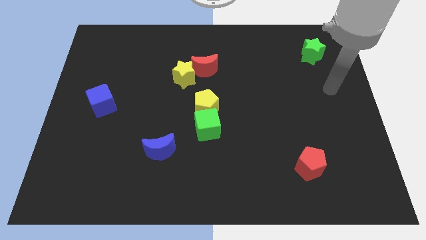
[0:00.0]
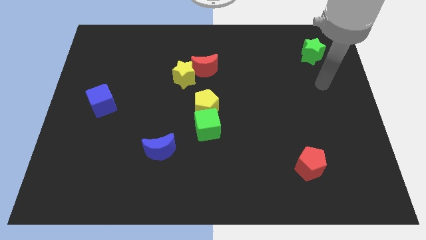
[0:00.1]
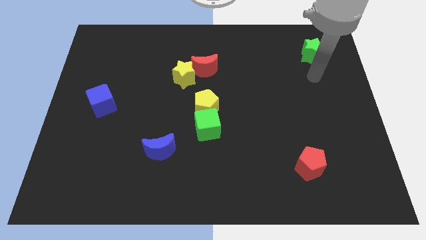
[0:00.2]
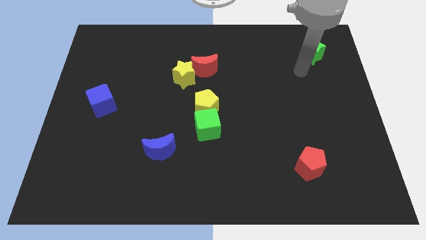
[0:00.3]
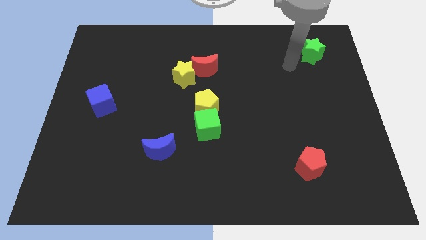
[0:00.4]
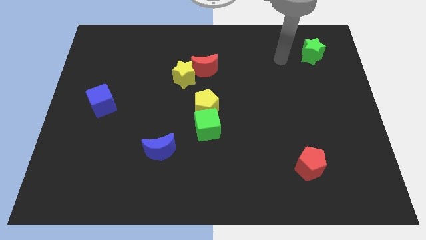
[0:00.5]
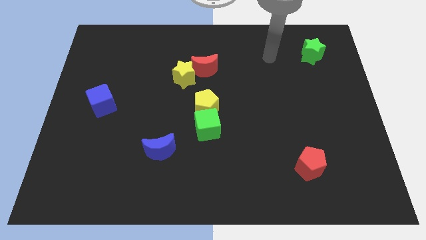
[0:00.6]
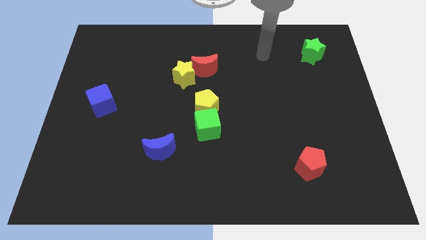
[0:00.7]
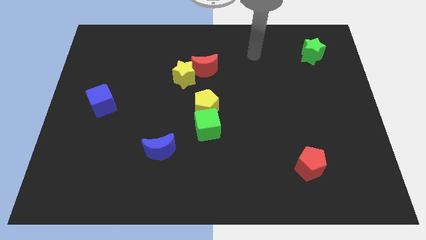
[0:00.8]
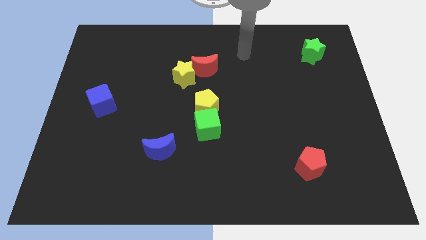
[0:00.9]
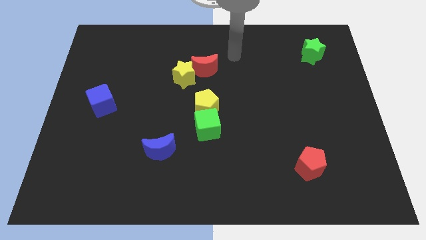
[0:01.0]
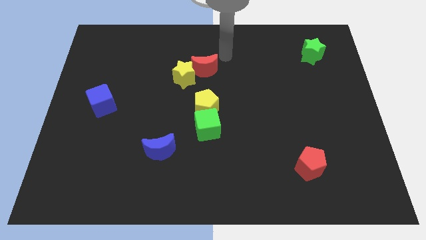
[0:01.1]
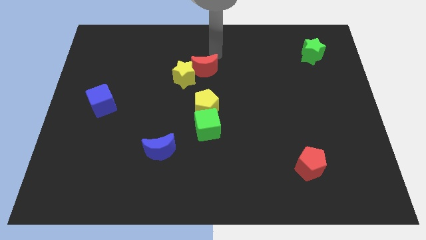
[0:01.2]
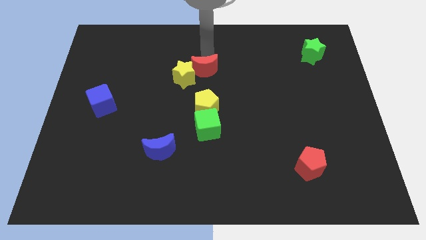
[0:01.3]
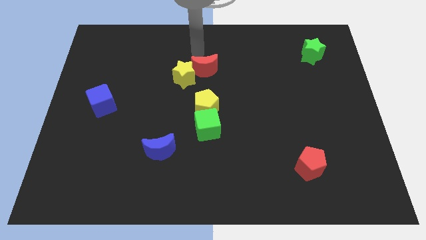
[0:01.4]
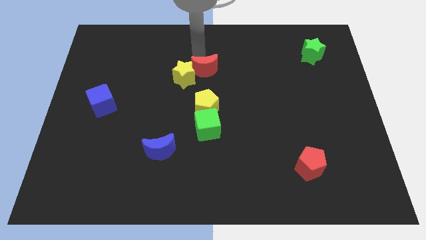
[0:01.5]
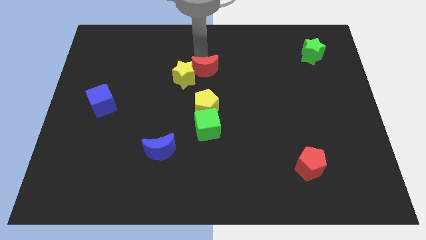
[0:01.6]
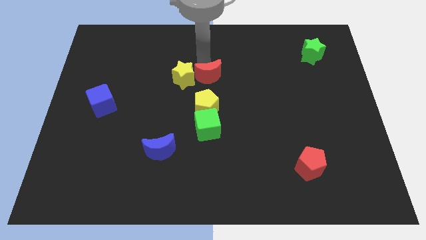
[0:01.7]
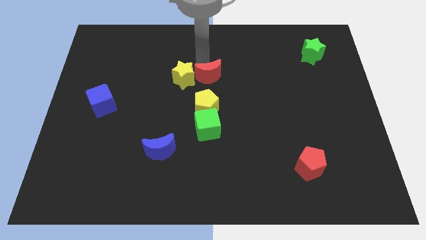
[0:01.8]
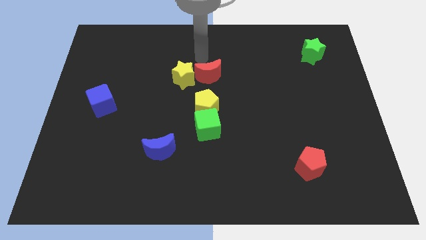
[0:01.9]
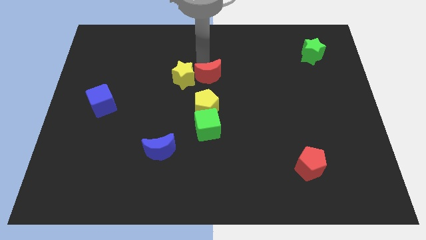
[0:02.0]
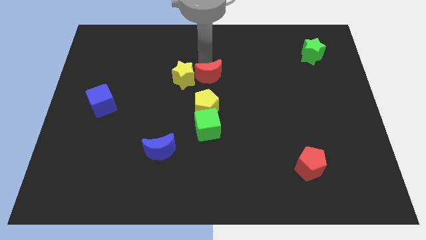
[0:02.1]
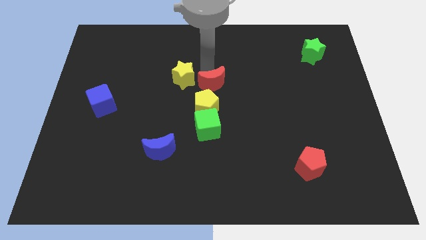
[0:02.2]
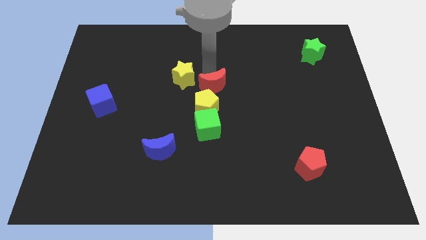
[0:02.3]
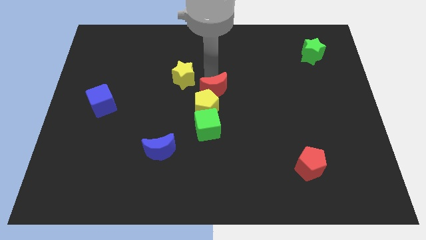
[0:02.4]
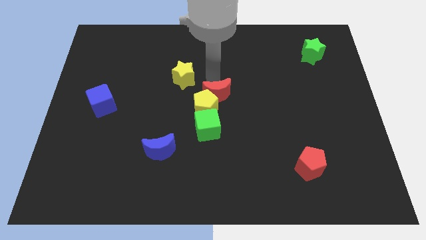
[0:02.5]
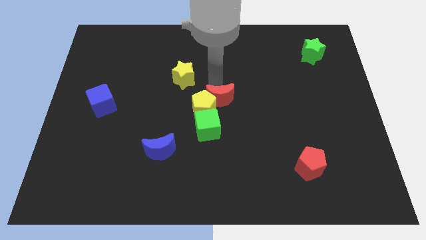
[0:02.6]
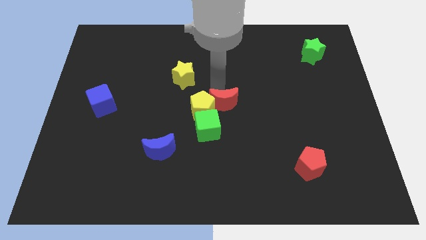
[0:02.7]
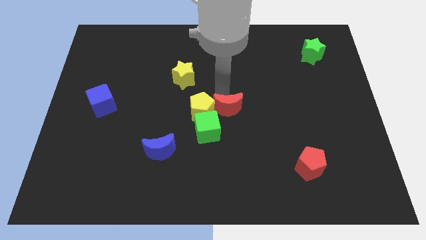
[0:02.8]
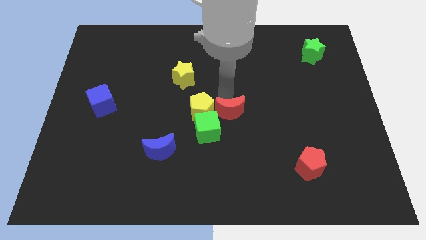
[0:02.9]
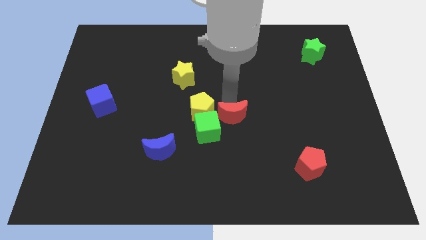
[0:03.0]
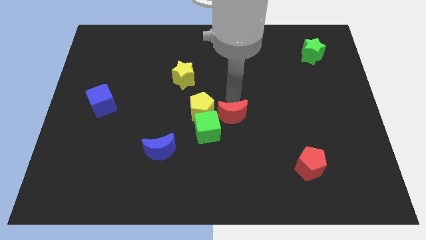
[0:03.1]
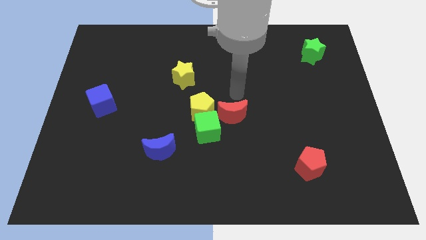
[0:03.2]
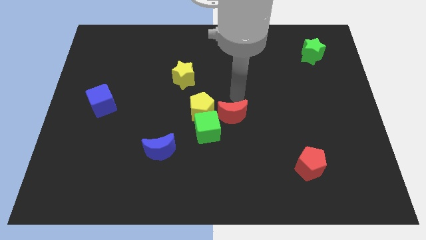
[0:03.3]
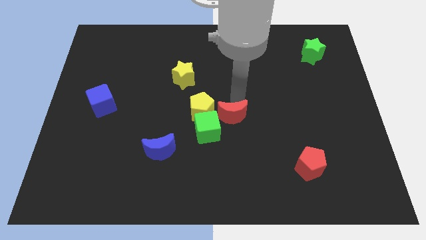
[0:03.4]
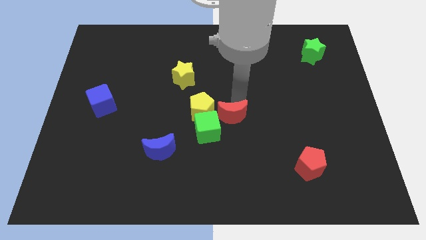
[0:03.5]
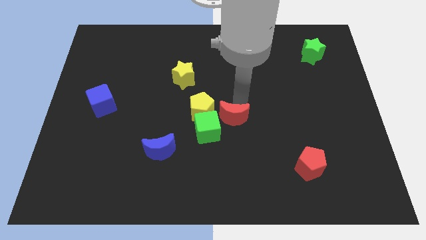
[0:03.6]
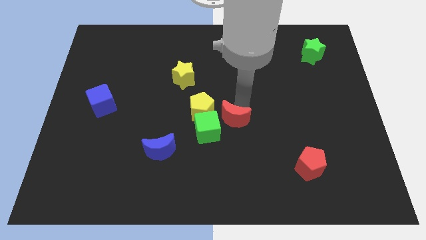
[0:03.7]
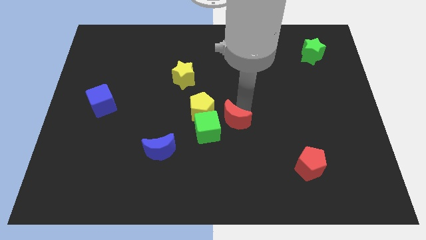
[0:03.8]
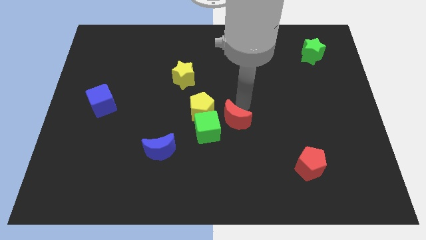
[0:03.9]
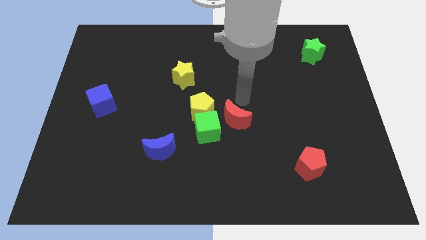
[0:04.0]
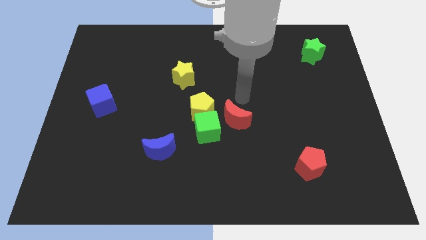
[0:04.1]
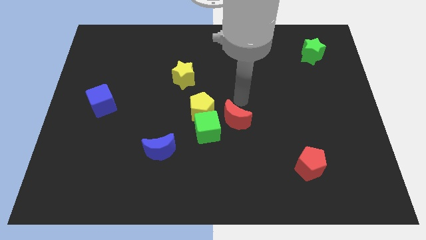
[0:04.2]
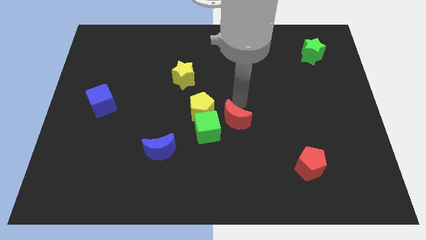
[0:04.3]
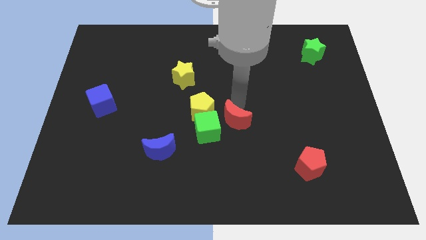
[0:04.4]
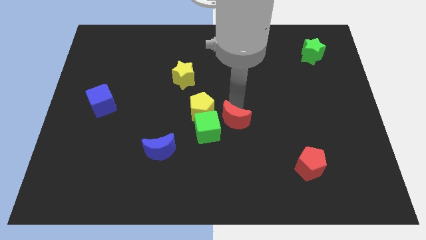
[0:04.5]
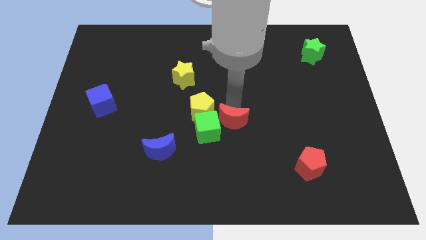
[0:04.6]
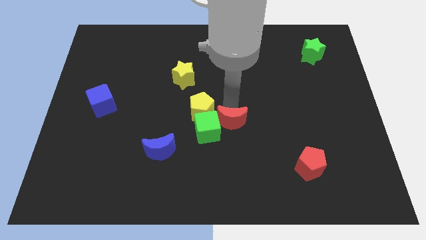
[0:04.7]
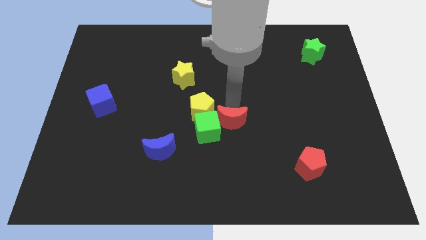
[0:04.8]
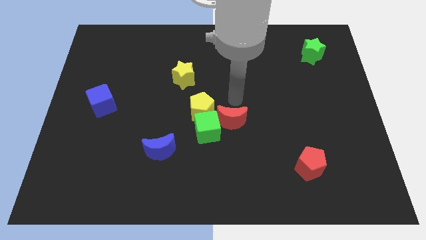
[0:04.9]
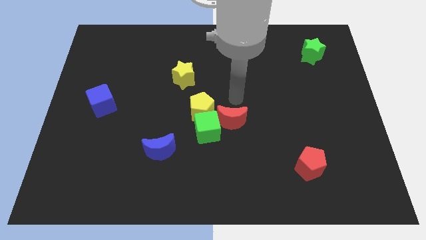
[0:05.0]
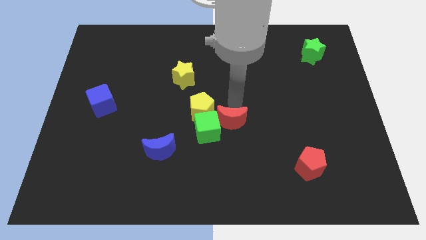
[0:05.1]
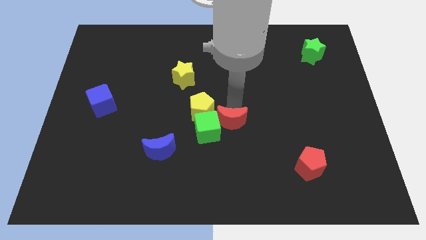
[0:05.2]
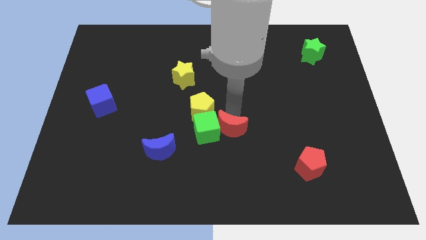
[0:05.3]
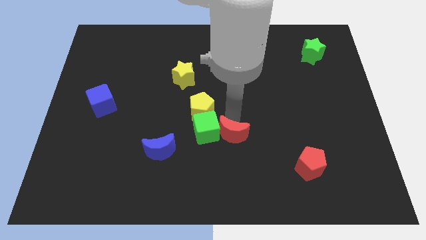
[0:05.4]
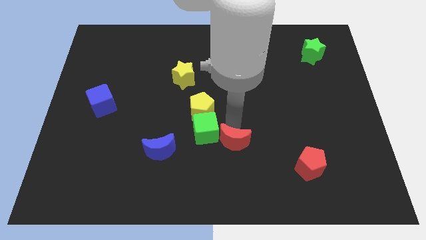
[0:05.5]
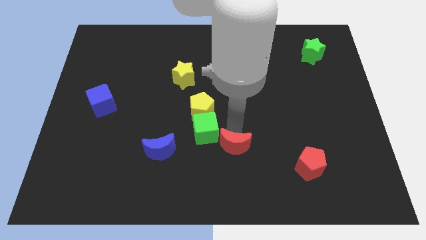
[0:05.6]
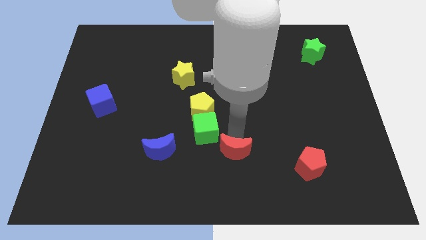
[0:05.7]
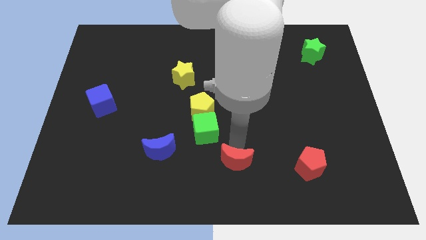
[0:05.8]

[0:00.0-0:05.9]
push the red moon to the bottom side

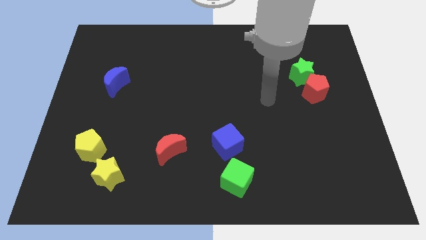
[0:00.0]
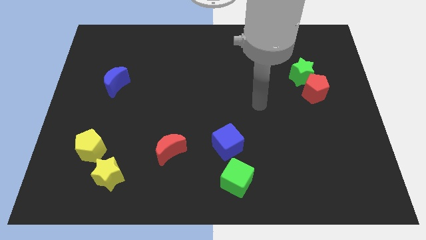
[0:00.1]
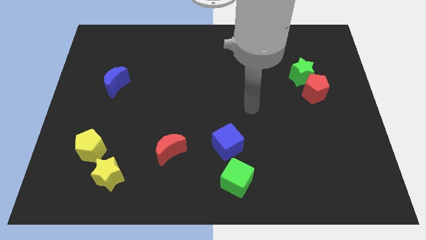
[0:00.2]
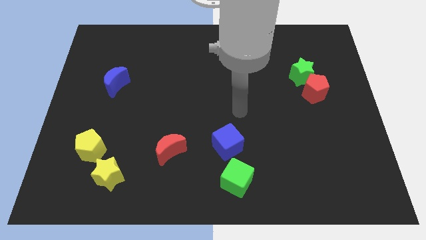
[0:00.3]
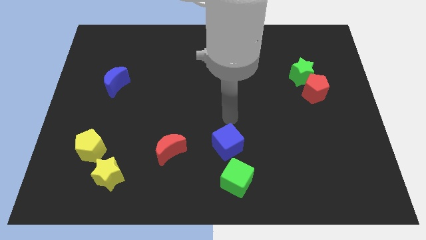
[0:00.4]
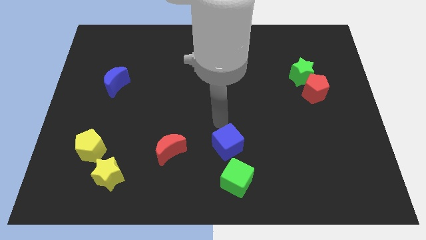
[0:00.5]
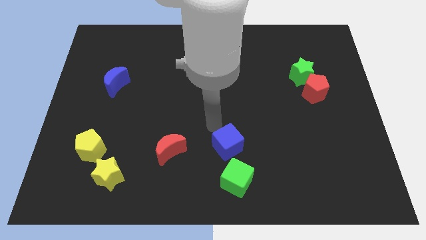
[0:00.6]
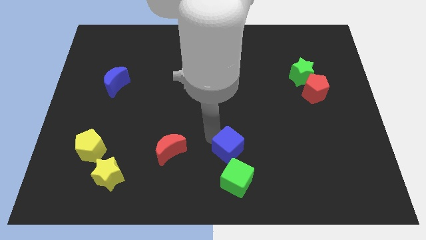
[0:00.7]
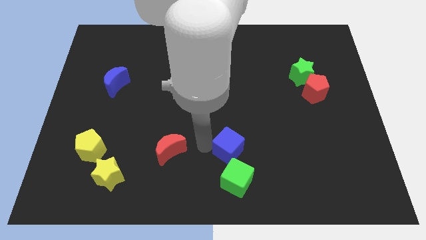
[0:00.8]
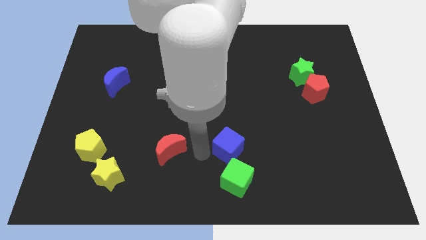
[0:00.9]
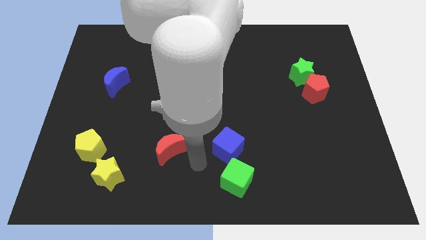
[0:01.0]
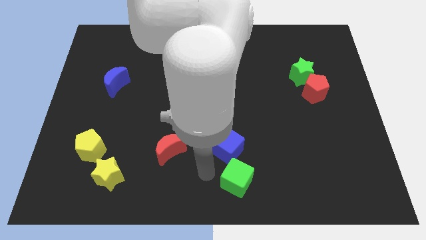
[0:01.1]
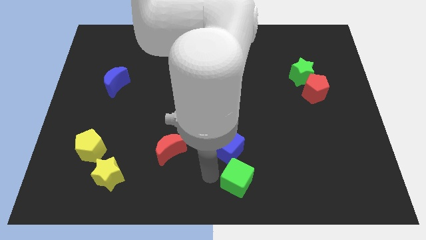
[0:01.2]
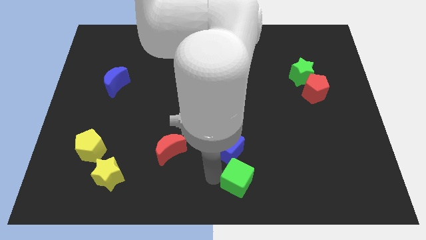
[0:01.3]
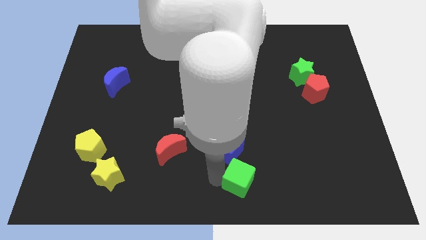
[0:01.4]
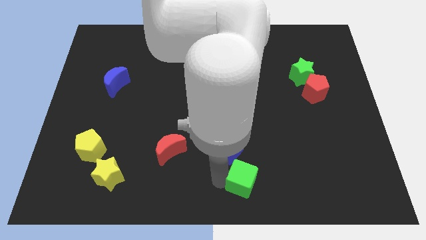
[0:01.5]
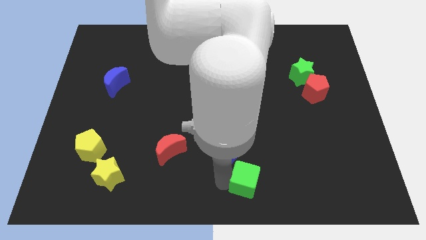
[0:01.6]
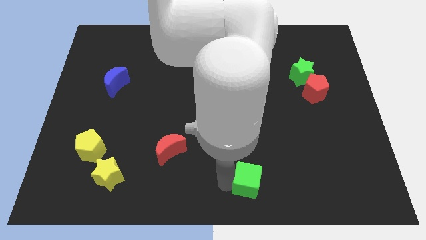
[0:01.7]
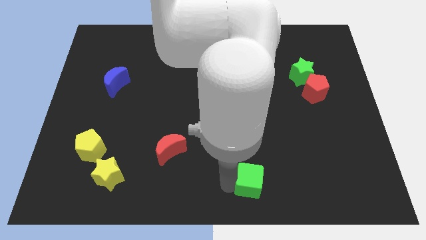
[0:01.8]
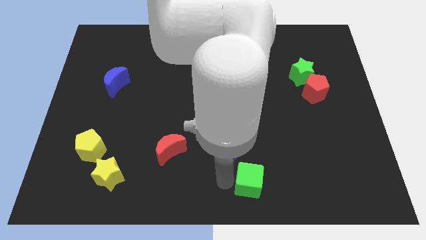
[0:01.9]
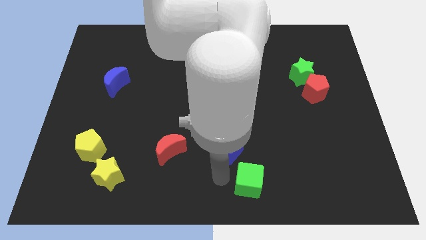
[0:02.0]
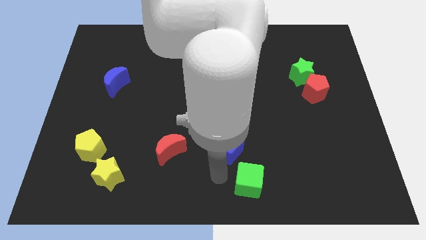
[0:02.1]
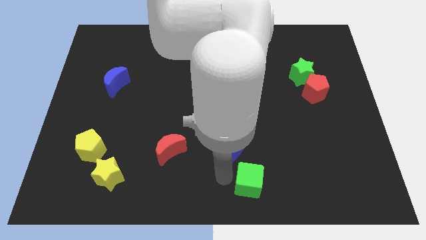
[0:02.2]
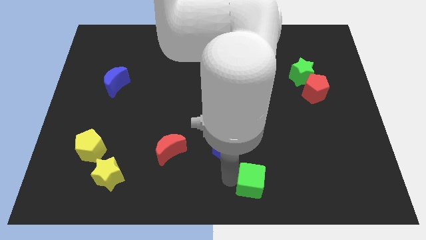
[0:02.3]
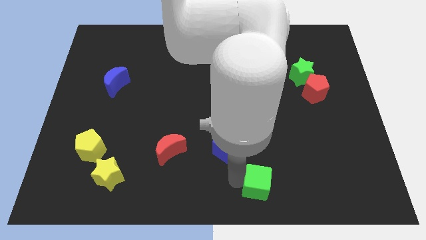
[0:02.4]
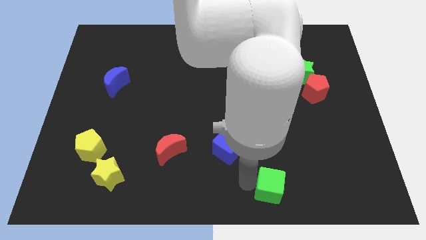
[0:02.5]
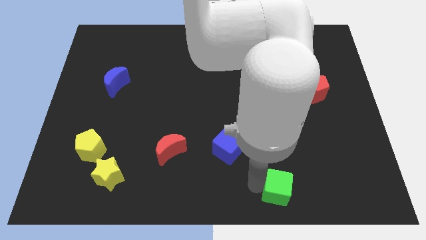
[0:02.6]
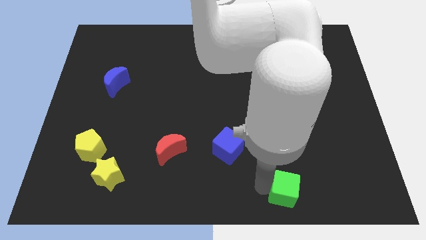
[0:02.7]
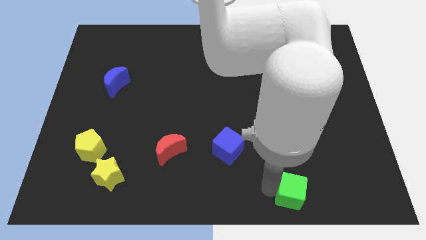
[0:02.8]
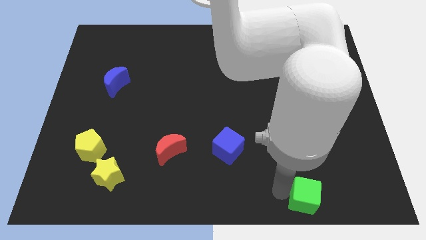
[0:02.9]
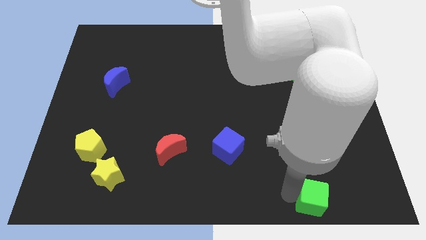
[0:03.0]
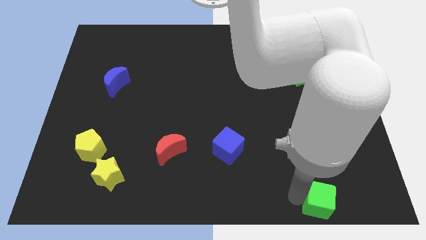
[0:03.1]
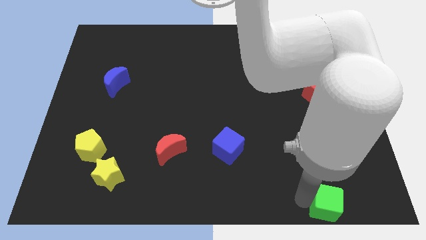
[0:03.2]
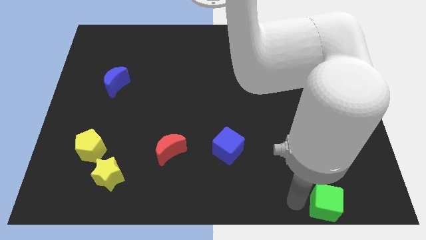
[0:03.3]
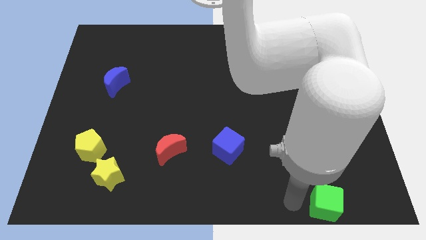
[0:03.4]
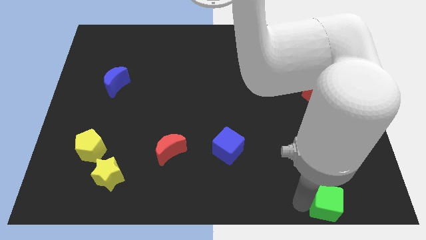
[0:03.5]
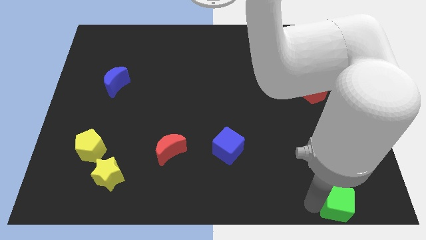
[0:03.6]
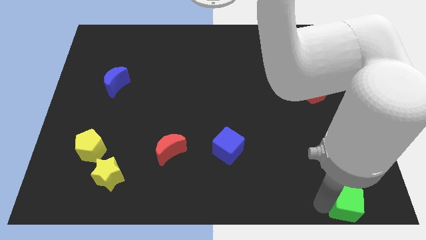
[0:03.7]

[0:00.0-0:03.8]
move the green cube to the lower right corner
